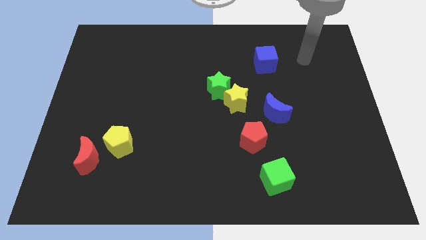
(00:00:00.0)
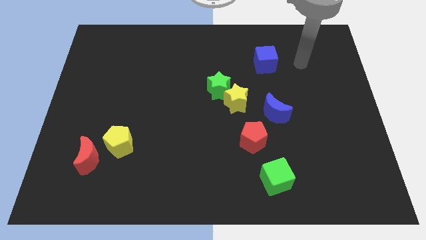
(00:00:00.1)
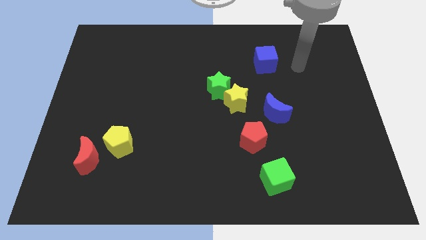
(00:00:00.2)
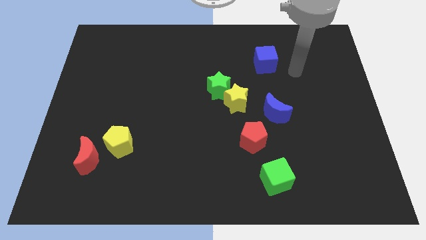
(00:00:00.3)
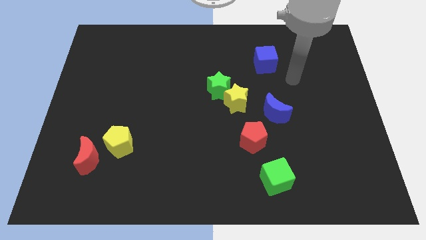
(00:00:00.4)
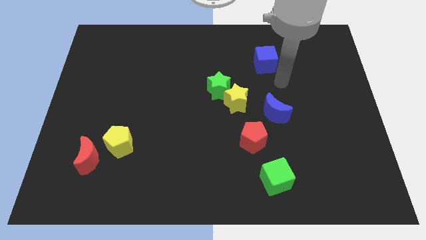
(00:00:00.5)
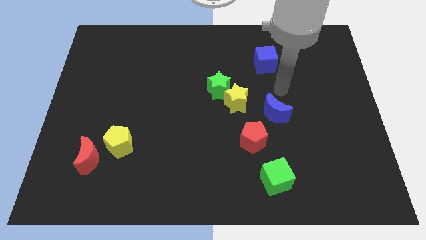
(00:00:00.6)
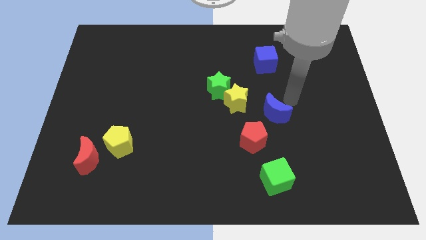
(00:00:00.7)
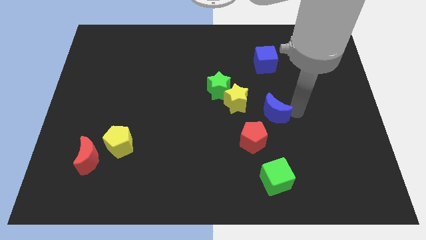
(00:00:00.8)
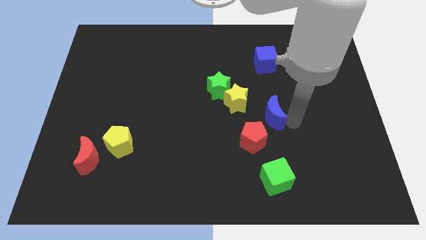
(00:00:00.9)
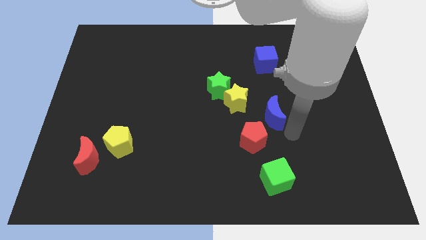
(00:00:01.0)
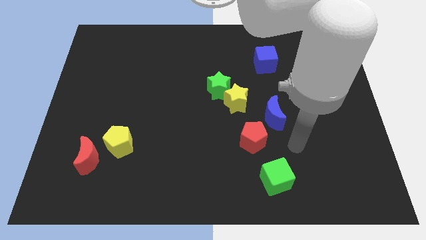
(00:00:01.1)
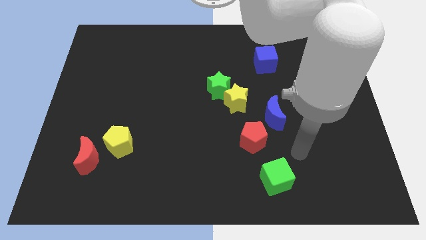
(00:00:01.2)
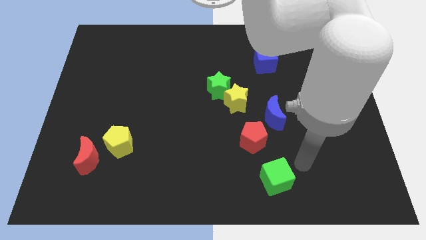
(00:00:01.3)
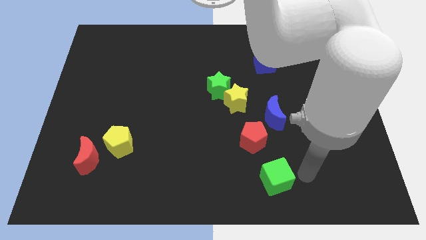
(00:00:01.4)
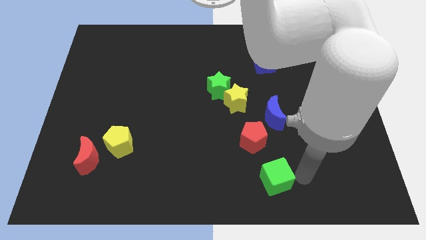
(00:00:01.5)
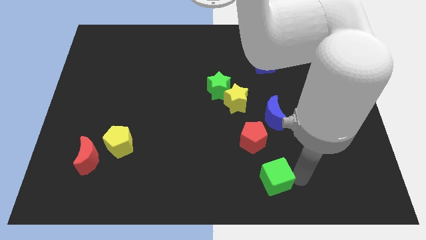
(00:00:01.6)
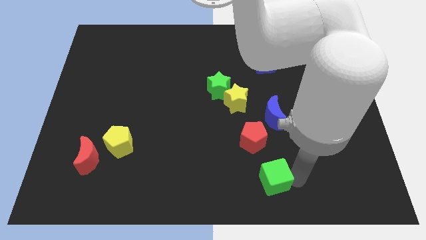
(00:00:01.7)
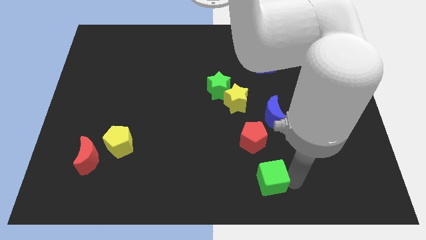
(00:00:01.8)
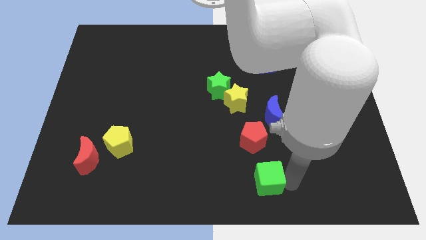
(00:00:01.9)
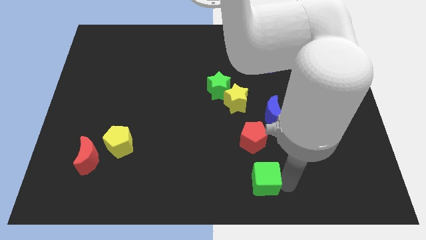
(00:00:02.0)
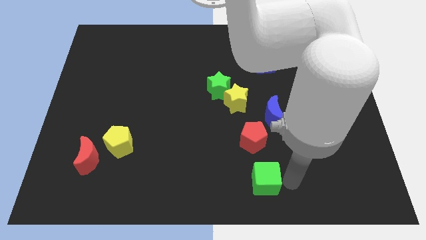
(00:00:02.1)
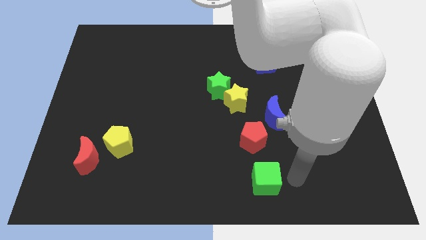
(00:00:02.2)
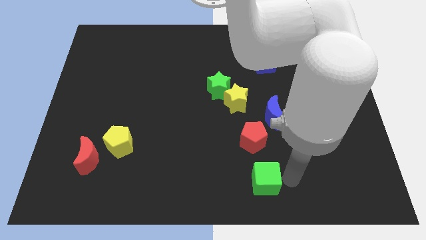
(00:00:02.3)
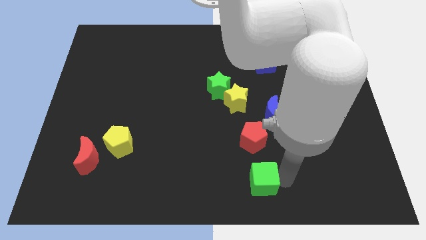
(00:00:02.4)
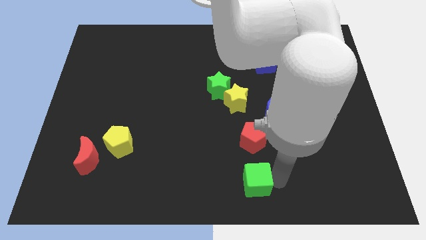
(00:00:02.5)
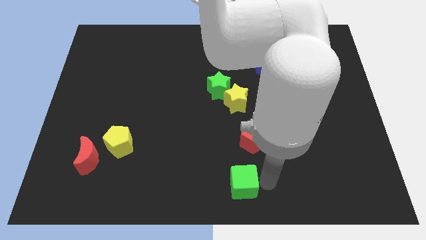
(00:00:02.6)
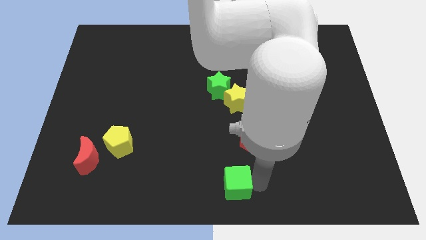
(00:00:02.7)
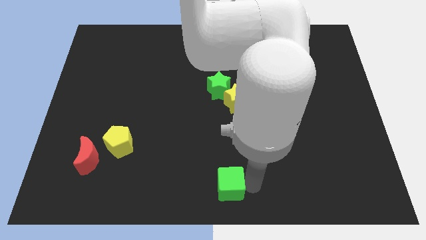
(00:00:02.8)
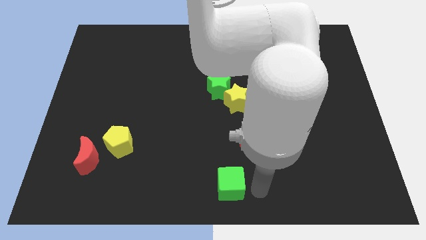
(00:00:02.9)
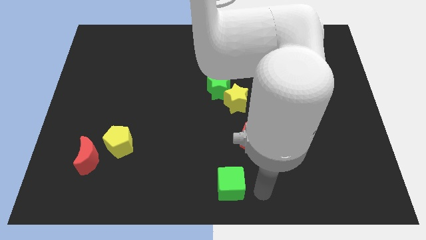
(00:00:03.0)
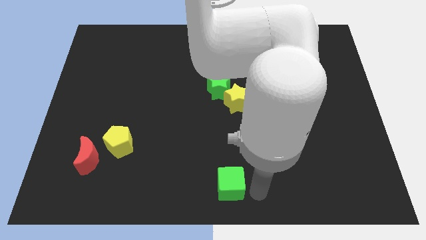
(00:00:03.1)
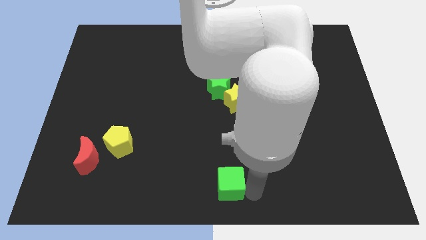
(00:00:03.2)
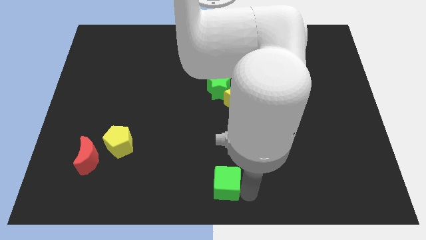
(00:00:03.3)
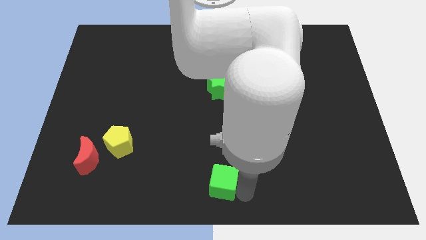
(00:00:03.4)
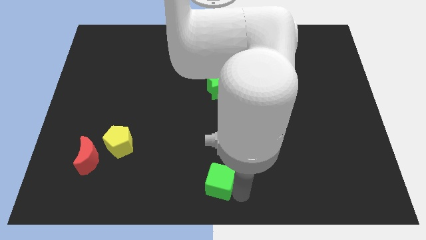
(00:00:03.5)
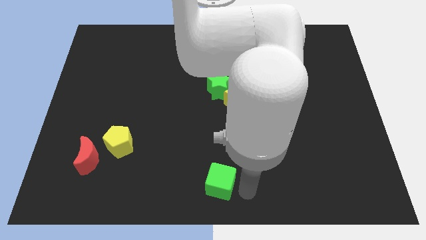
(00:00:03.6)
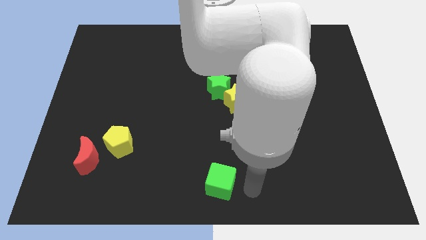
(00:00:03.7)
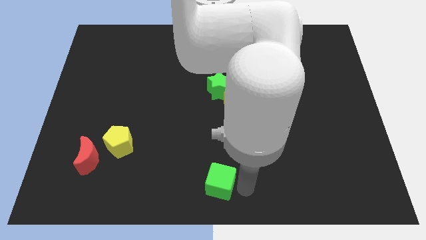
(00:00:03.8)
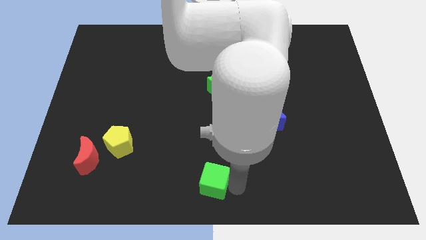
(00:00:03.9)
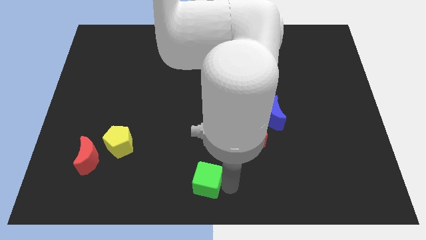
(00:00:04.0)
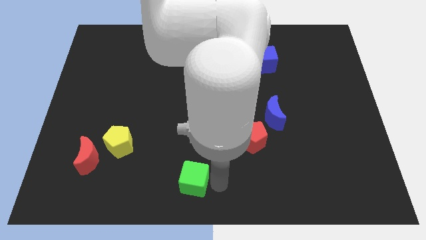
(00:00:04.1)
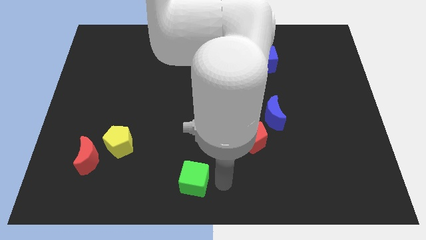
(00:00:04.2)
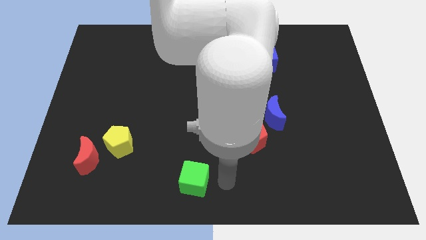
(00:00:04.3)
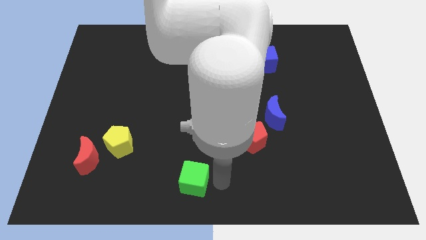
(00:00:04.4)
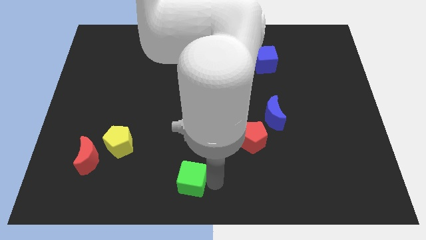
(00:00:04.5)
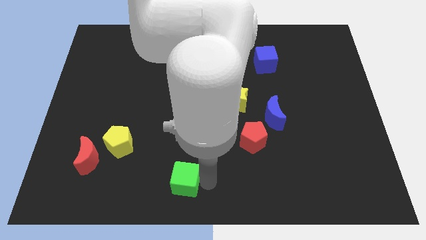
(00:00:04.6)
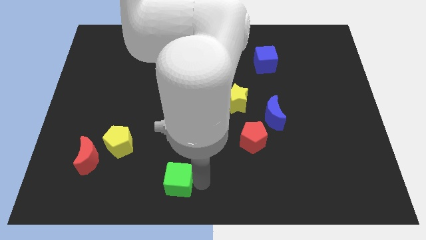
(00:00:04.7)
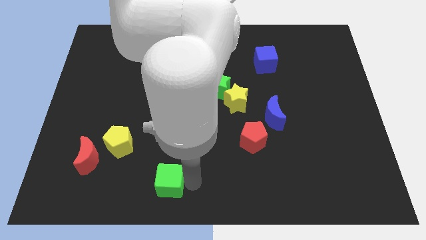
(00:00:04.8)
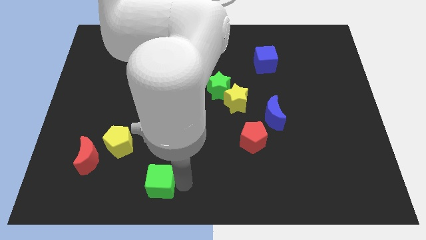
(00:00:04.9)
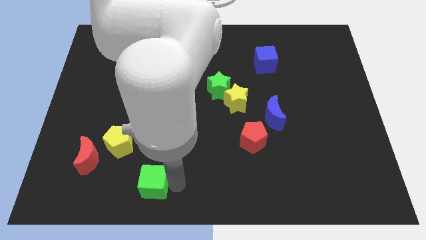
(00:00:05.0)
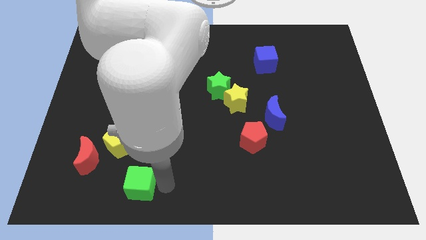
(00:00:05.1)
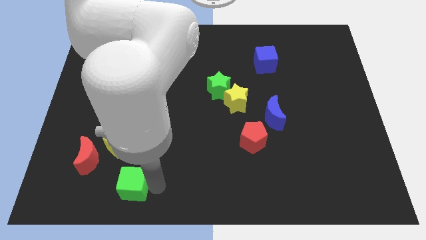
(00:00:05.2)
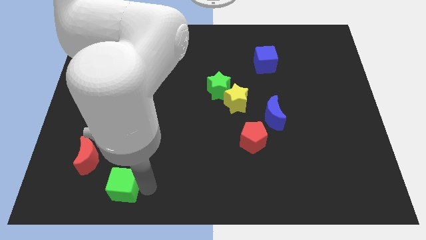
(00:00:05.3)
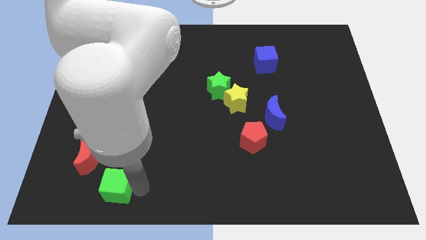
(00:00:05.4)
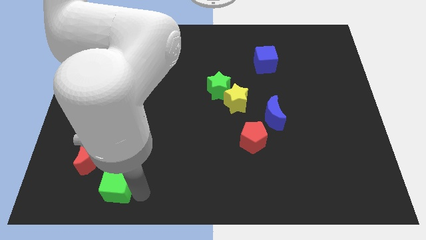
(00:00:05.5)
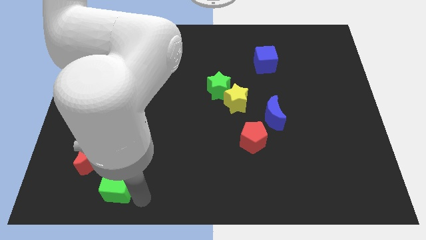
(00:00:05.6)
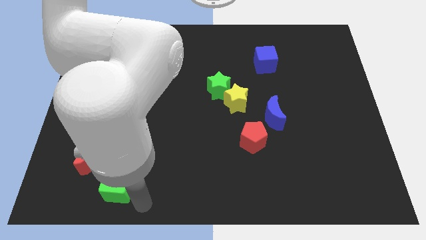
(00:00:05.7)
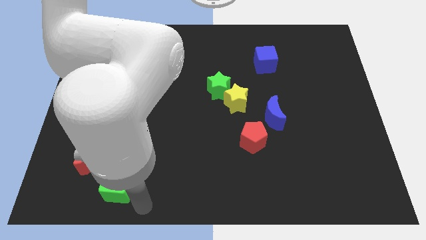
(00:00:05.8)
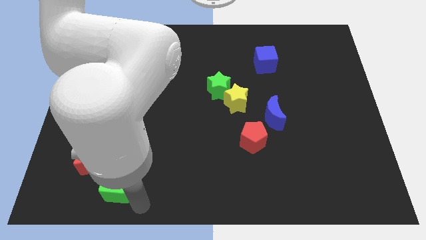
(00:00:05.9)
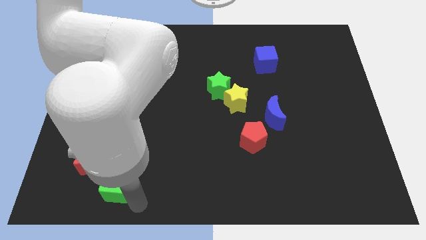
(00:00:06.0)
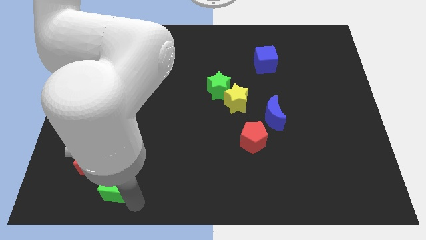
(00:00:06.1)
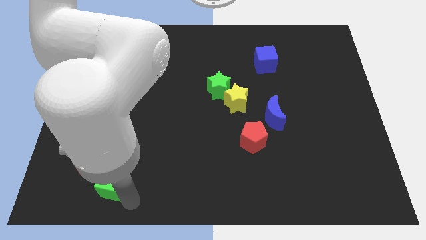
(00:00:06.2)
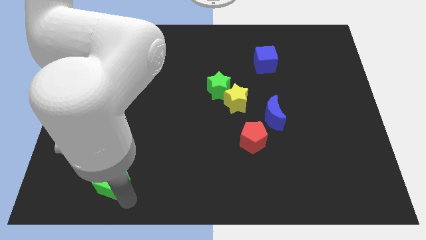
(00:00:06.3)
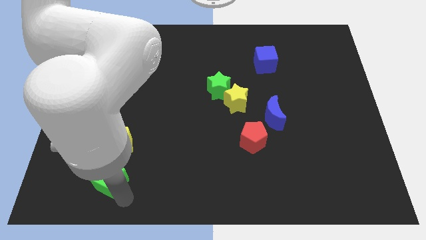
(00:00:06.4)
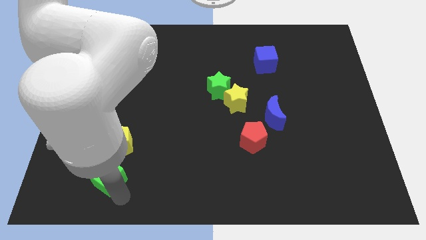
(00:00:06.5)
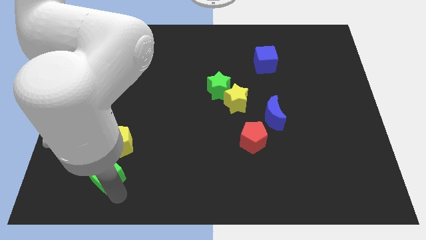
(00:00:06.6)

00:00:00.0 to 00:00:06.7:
slide the green cube to the bottom left side of the yellow pentagon
